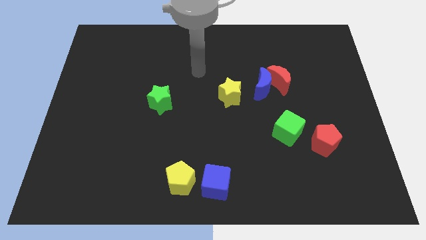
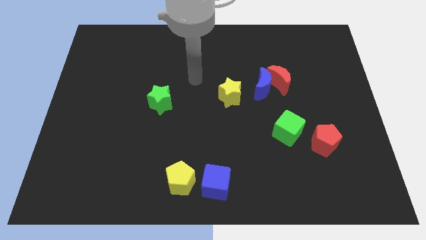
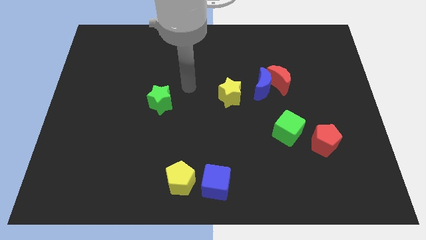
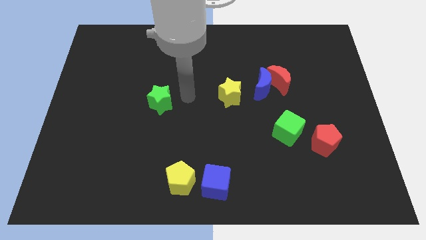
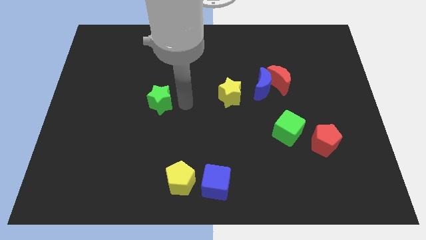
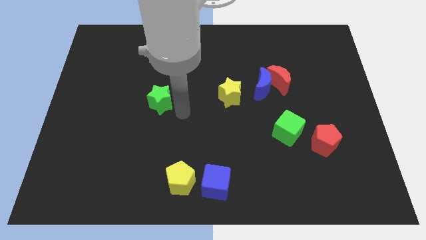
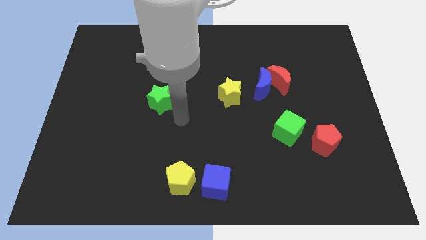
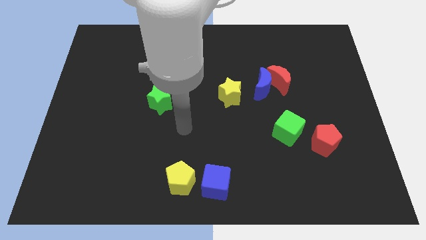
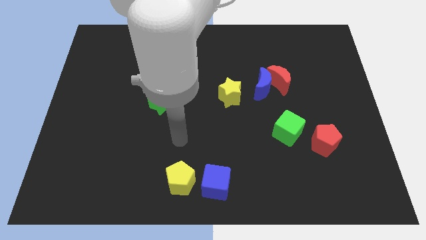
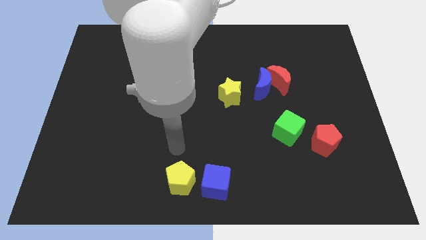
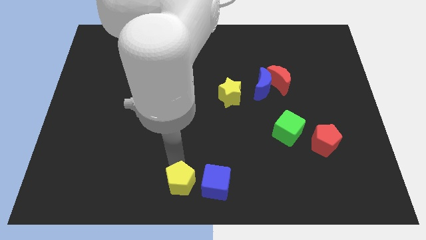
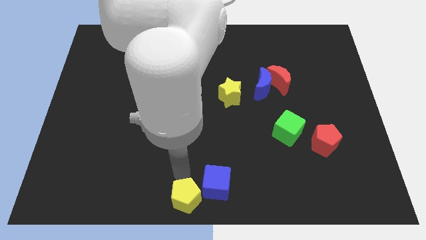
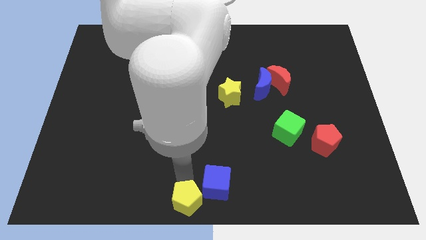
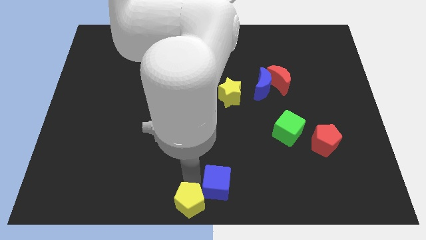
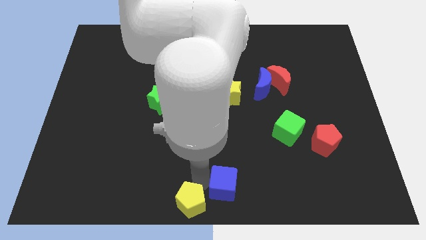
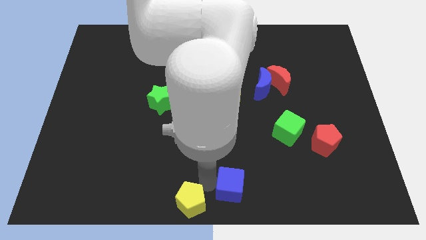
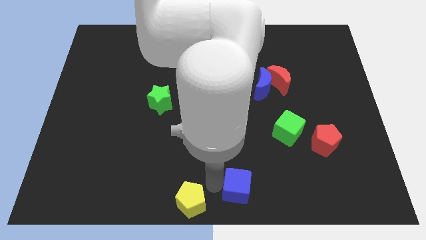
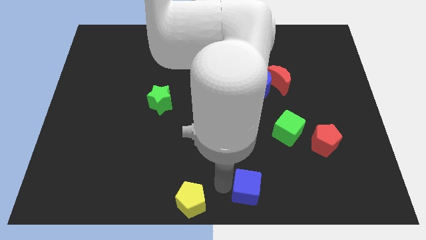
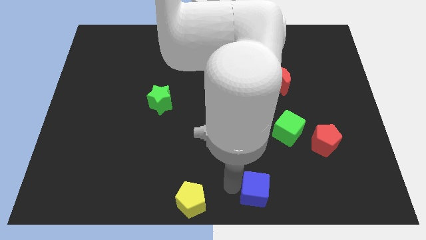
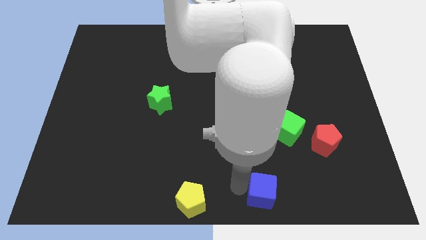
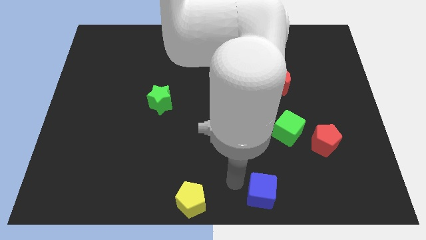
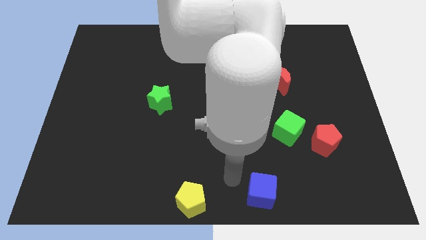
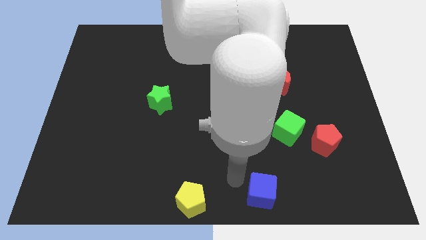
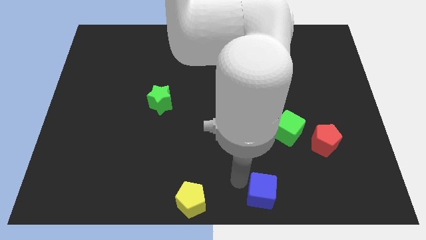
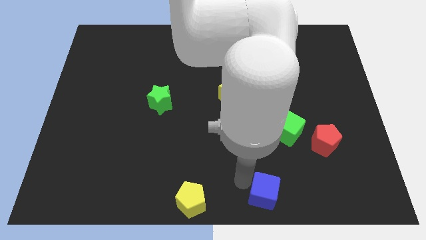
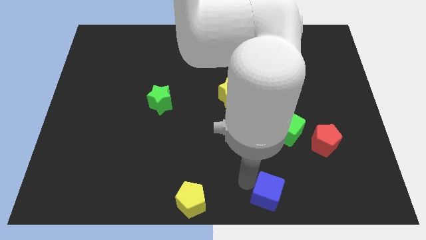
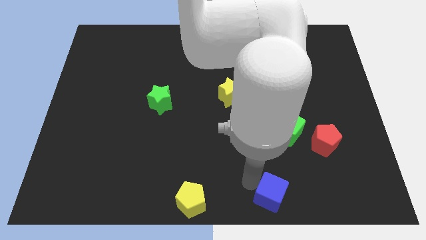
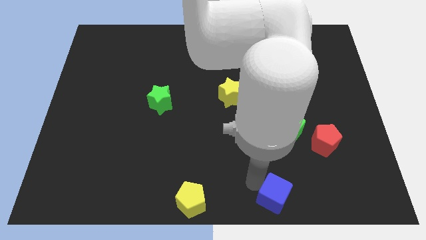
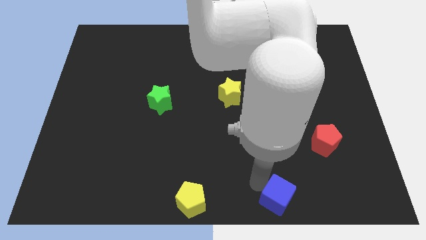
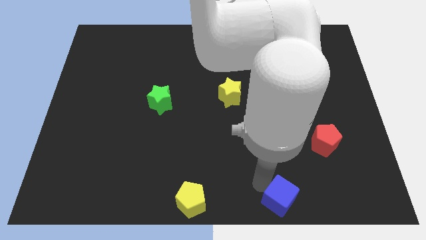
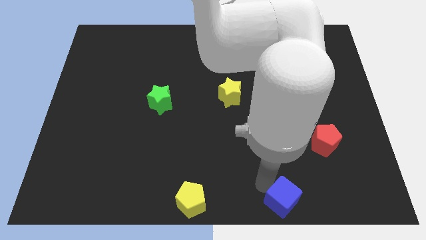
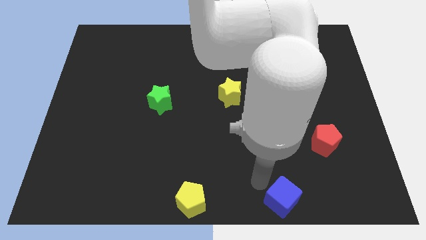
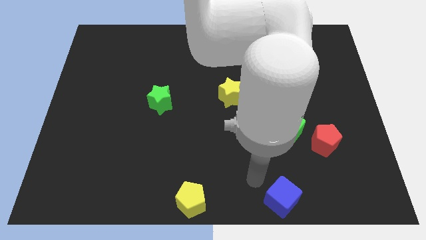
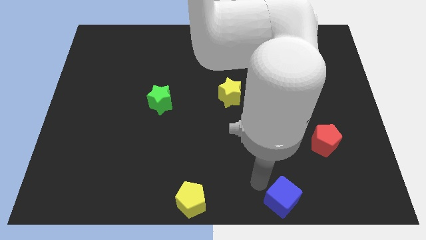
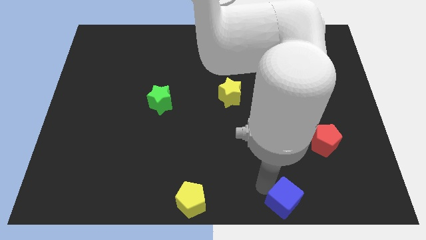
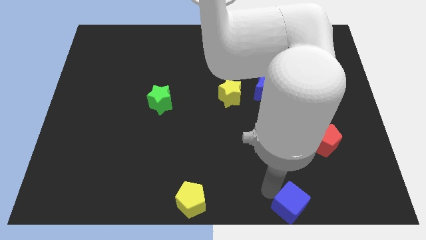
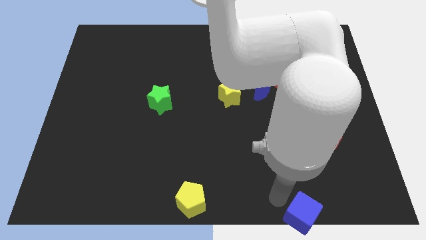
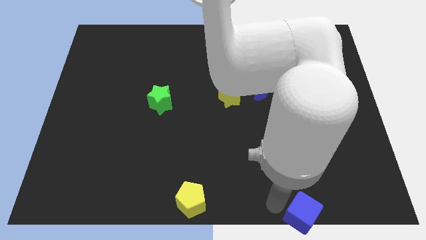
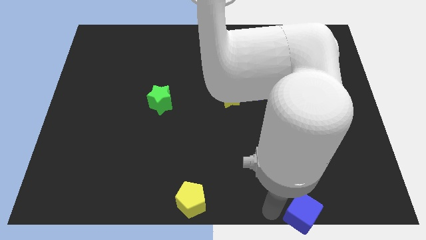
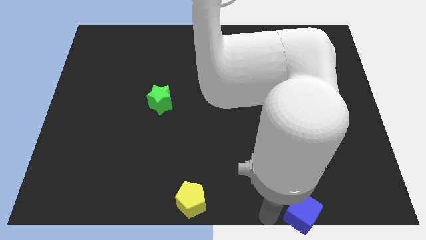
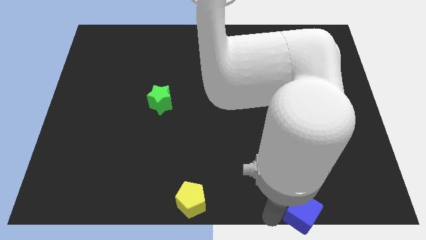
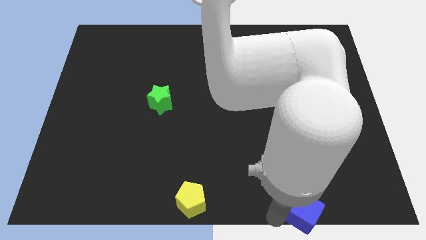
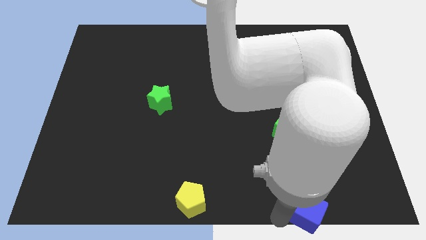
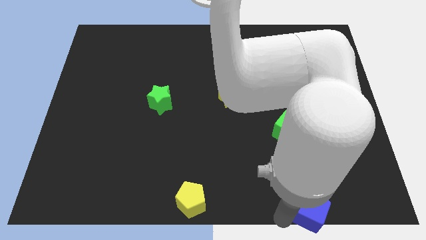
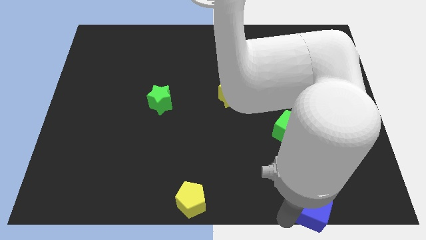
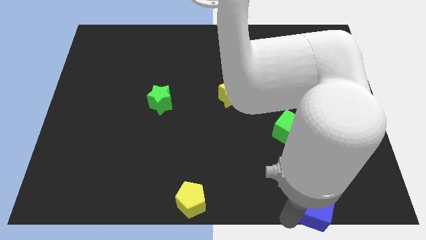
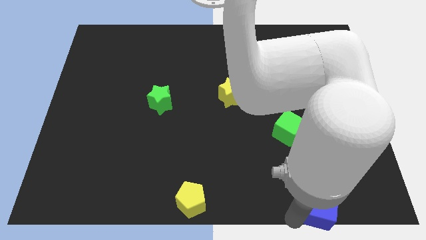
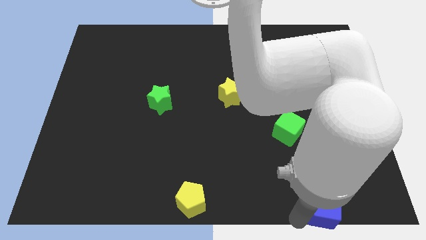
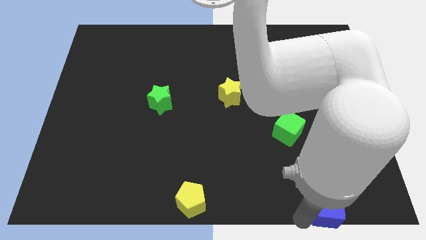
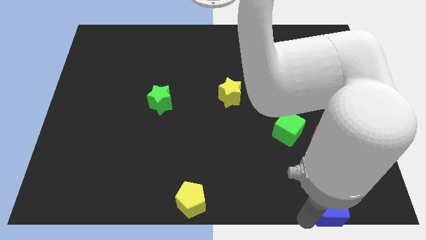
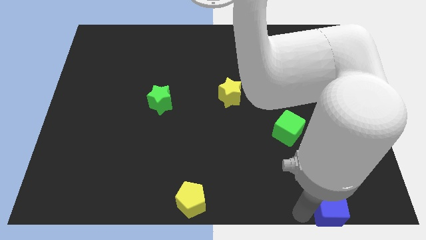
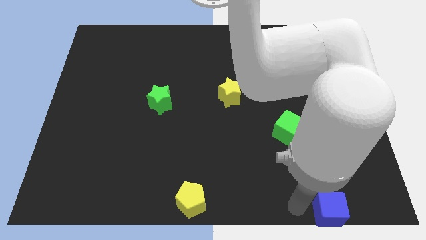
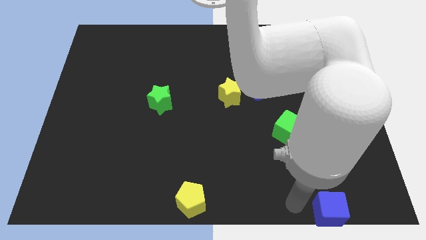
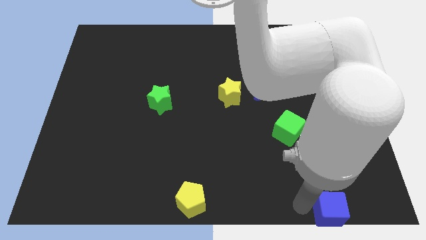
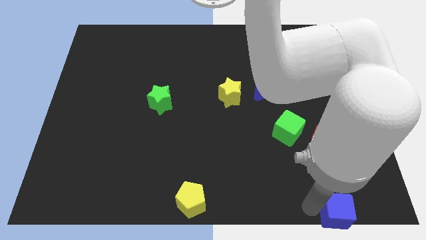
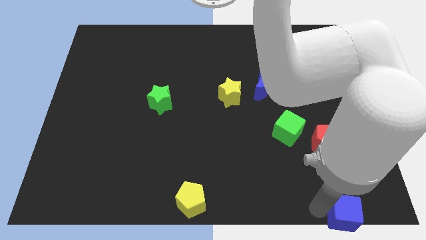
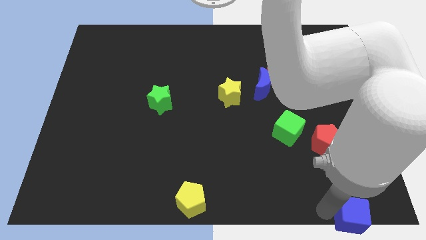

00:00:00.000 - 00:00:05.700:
slide the blue cube to the lower right corner

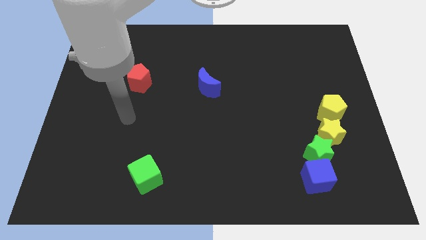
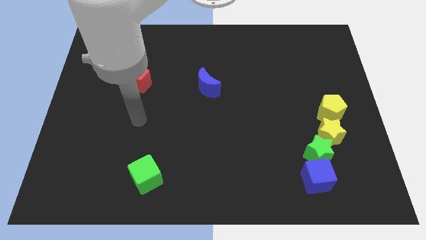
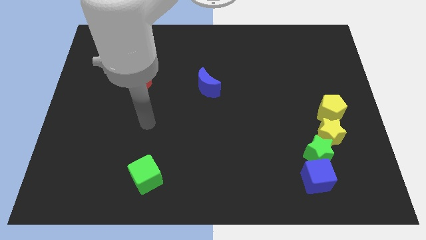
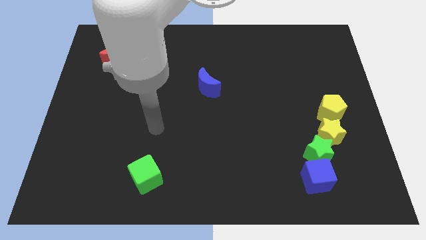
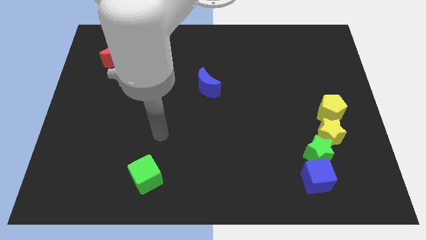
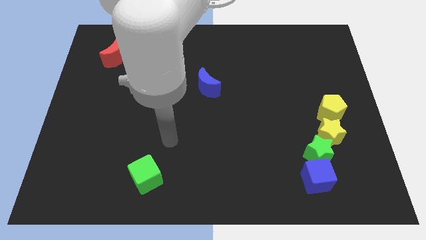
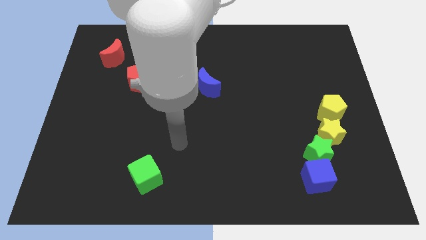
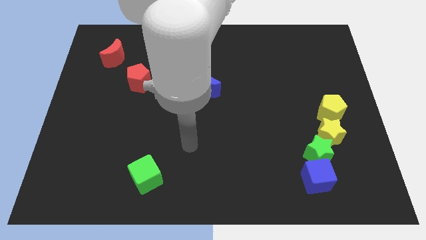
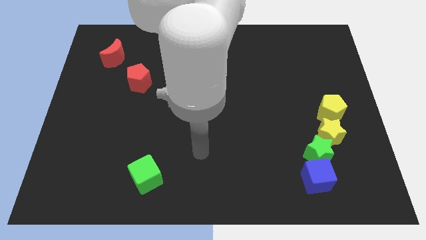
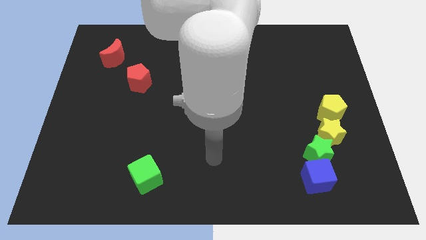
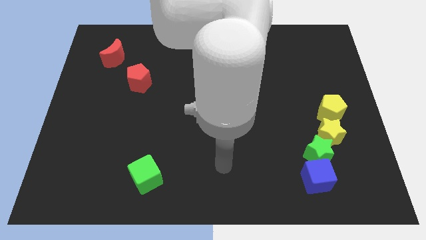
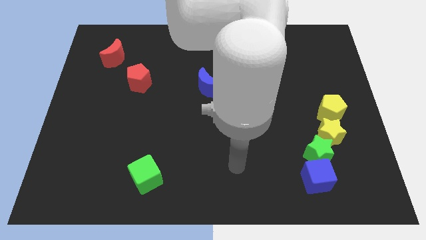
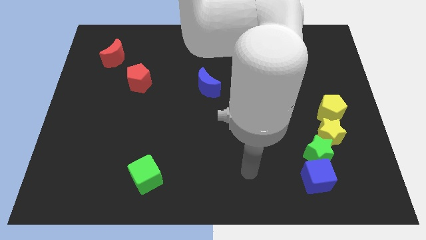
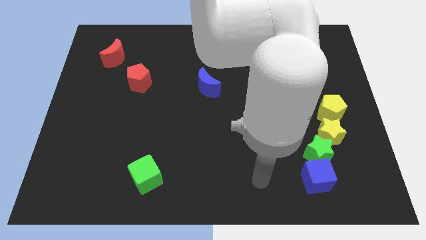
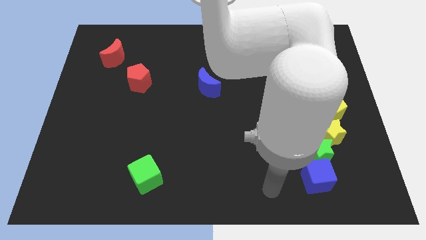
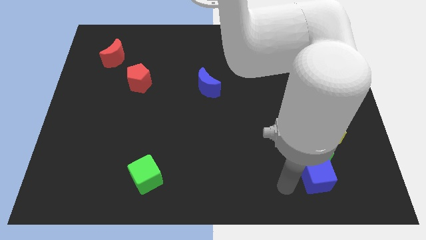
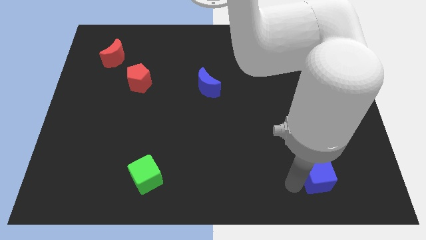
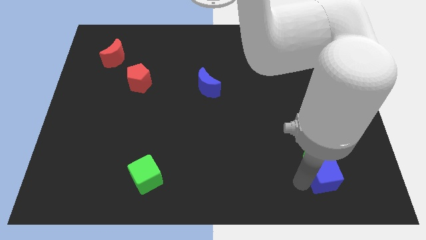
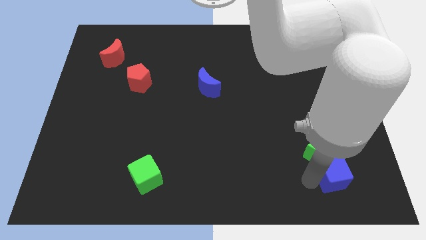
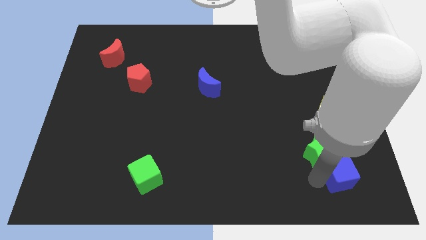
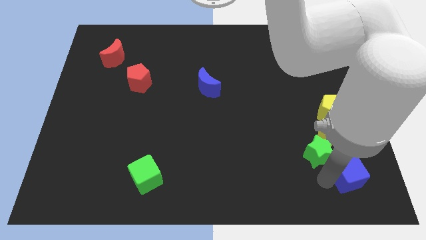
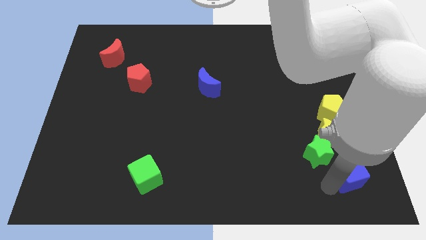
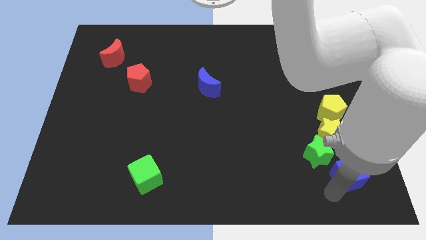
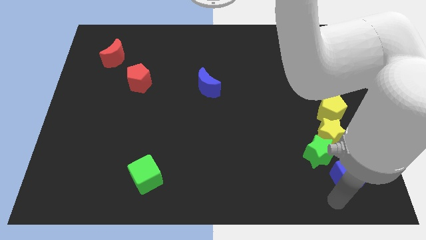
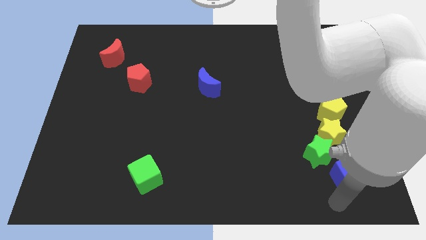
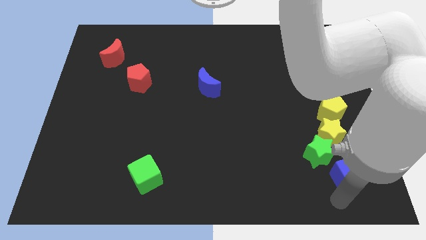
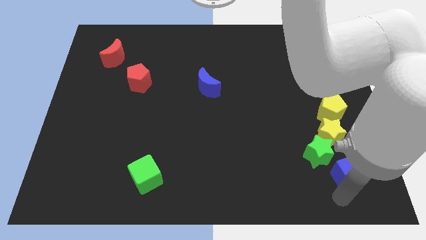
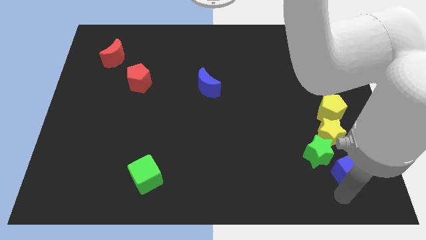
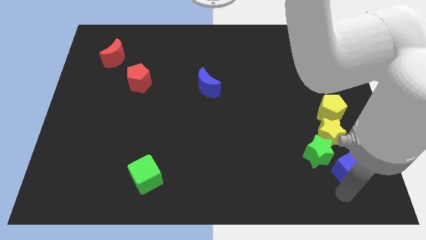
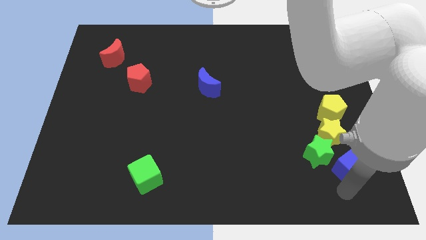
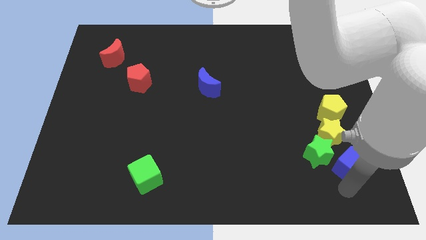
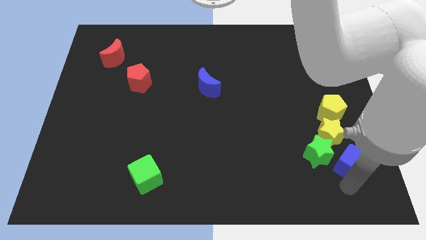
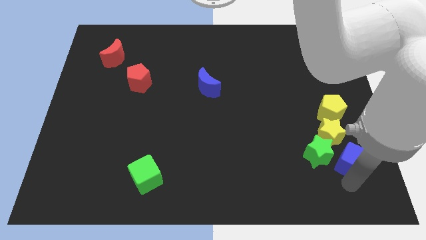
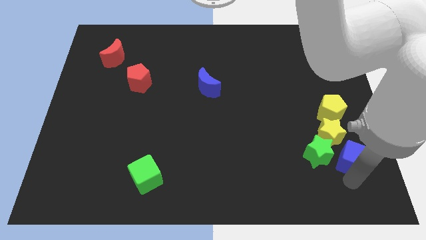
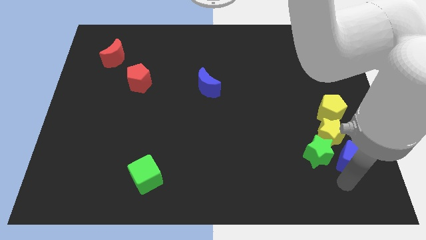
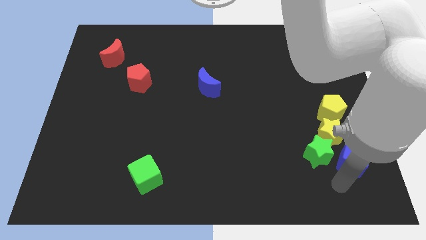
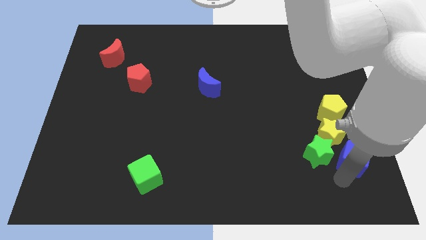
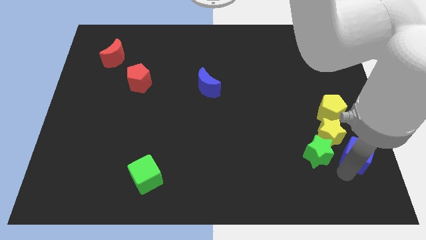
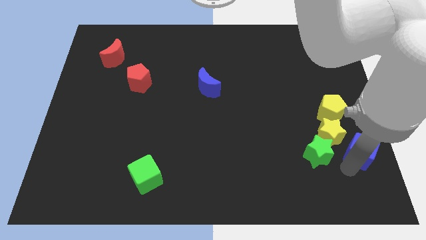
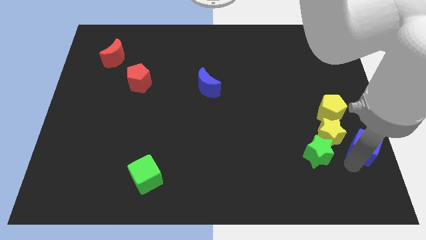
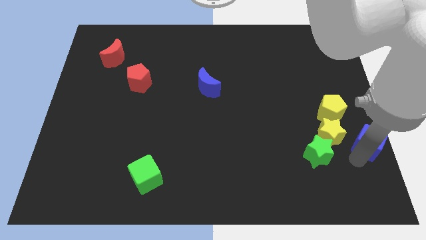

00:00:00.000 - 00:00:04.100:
slide the blue cube to the right side of the board
